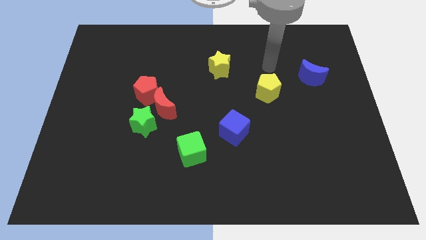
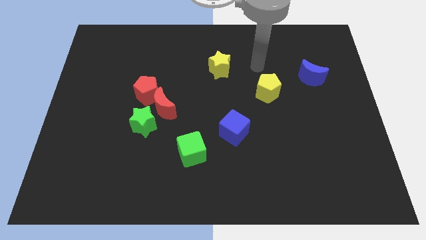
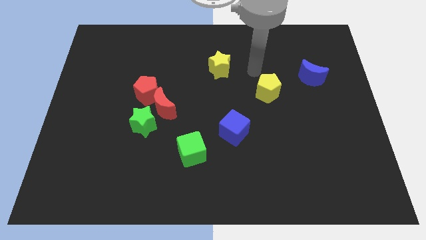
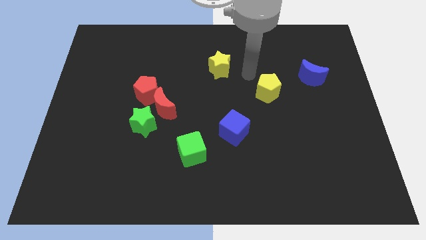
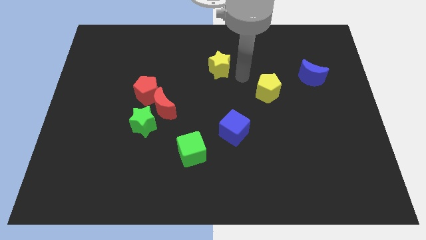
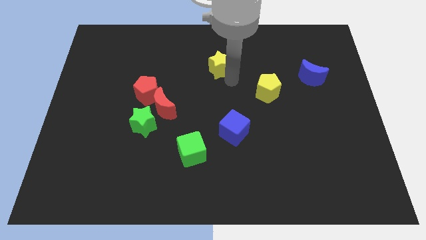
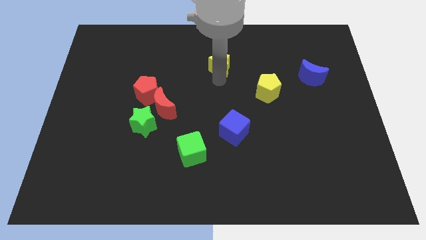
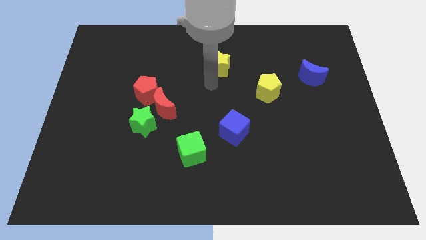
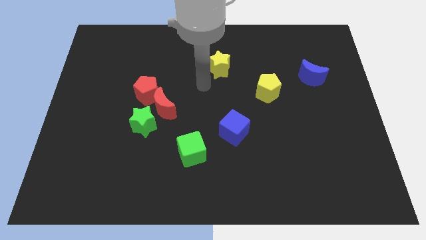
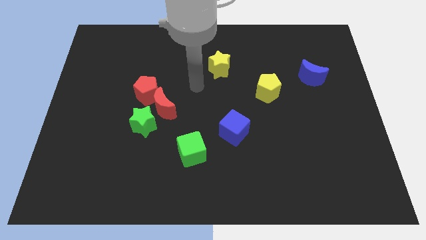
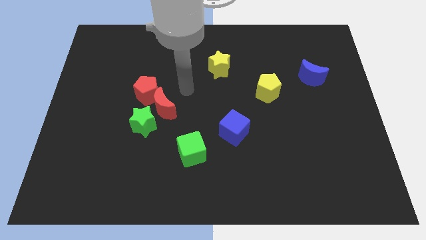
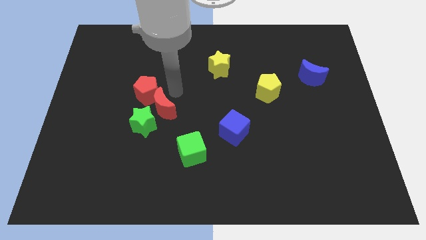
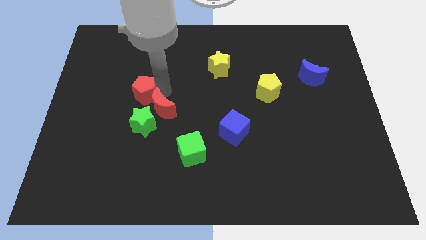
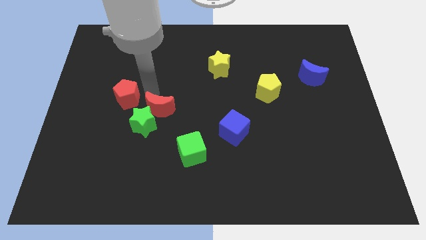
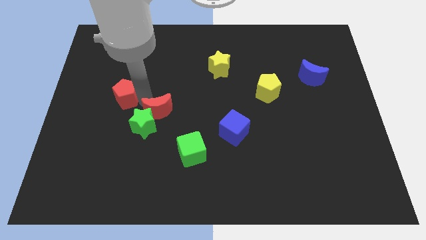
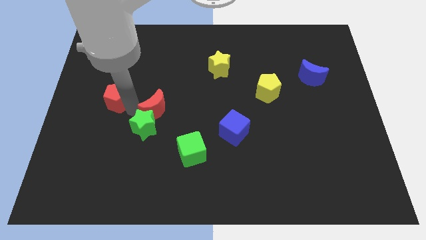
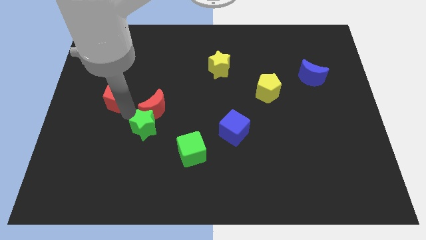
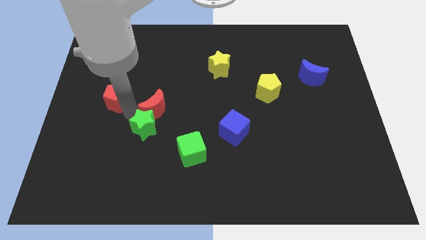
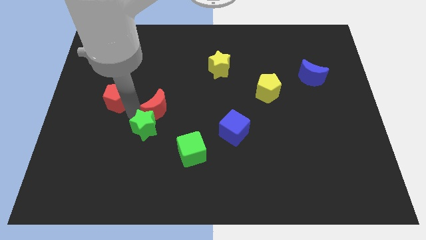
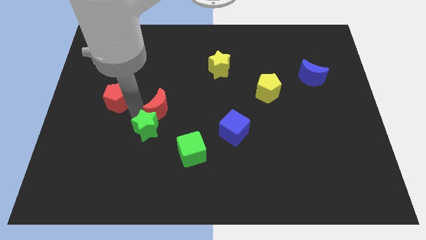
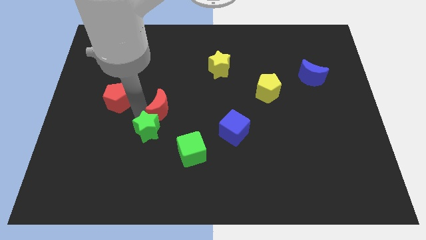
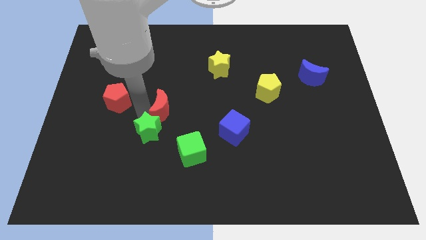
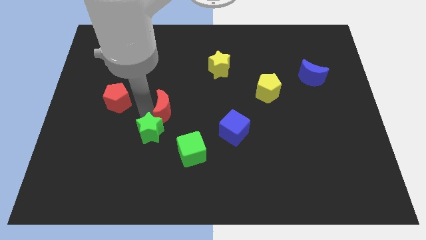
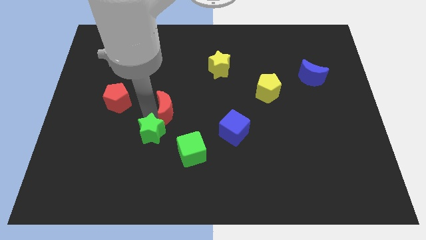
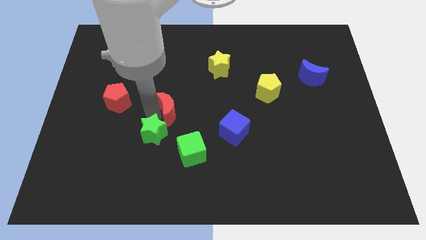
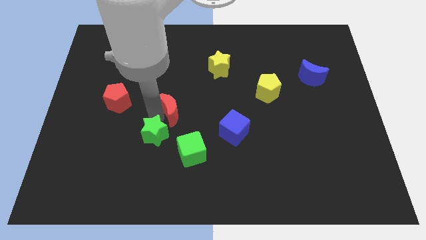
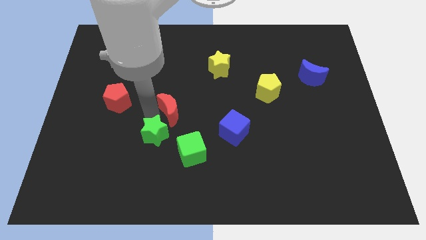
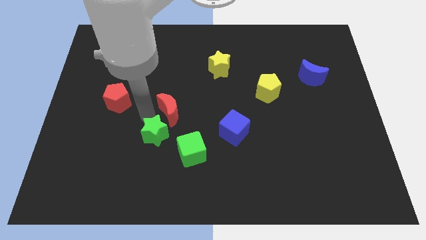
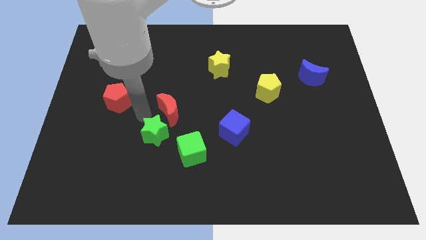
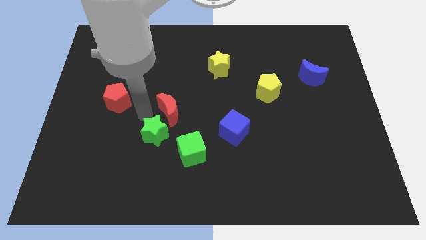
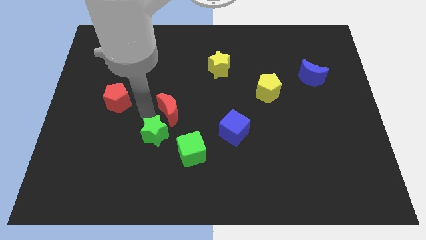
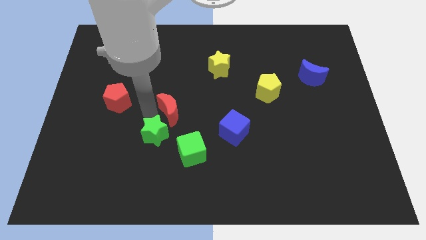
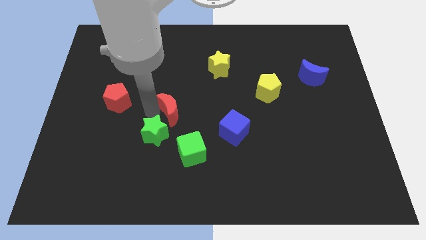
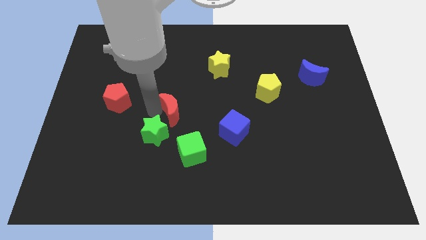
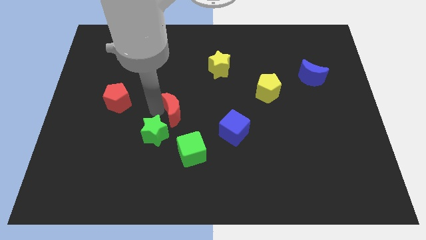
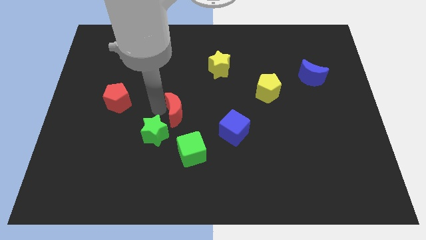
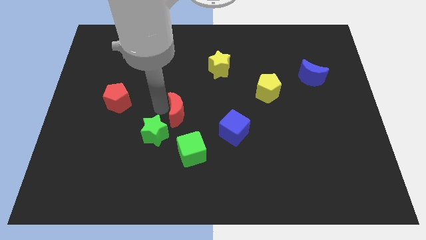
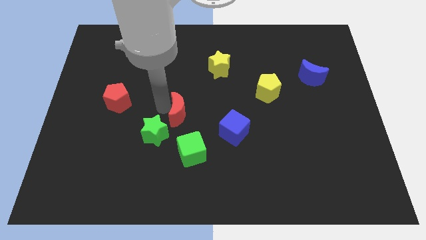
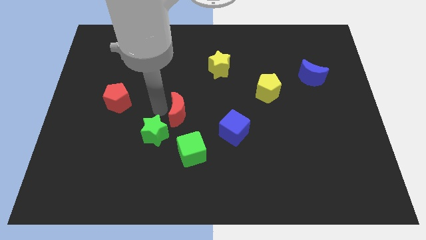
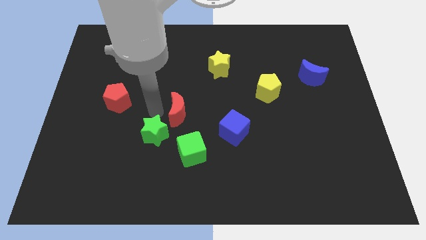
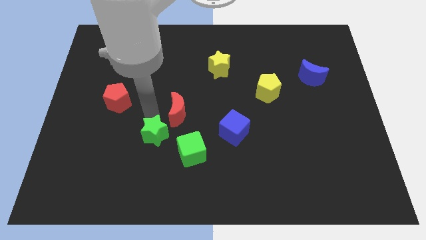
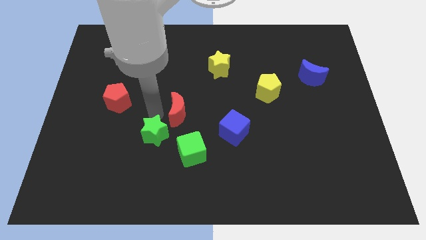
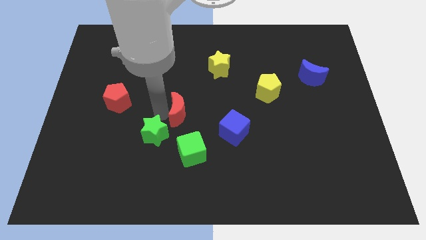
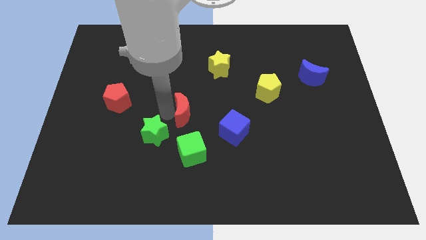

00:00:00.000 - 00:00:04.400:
pull the red moon apart from the green star and red pentagon

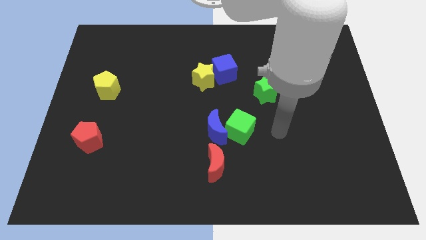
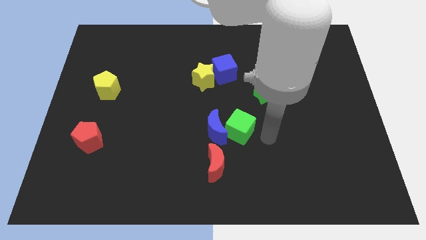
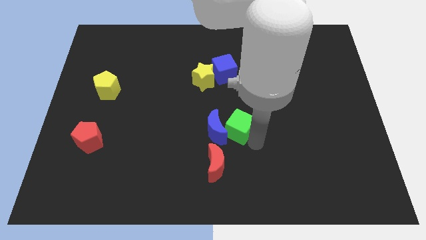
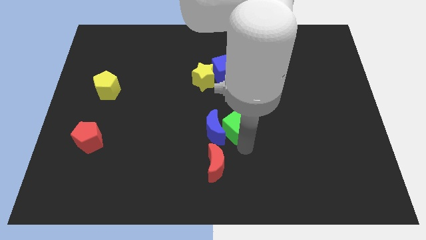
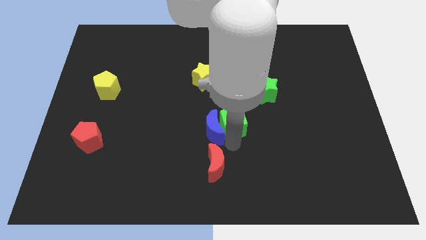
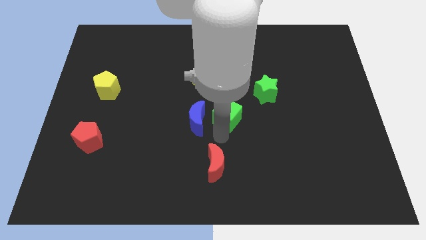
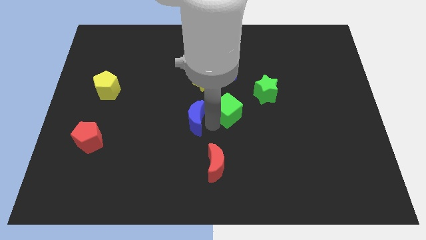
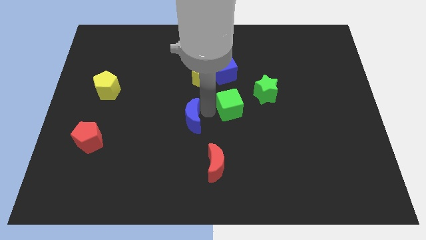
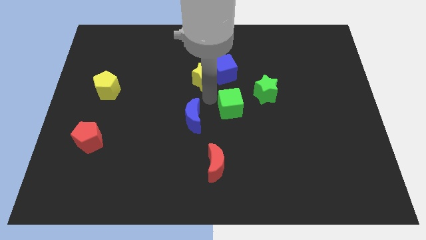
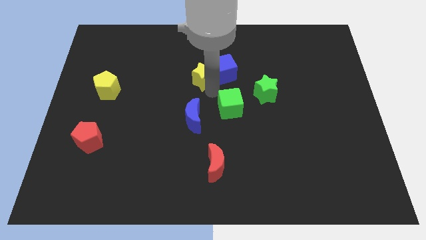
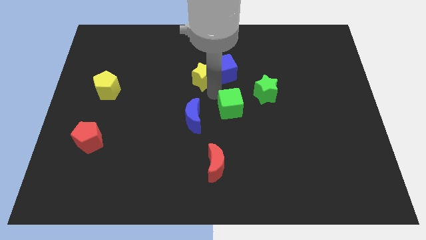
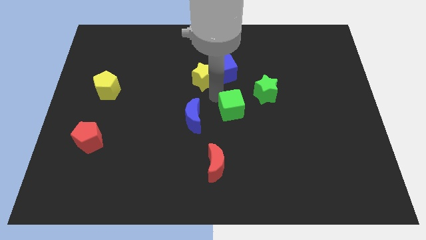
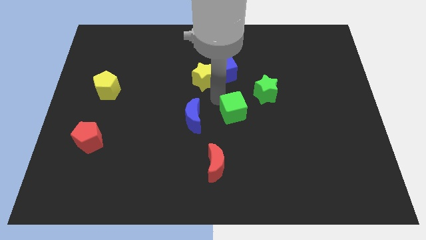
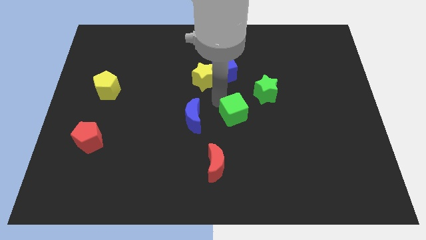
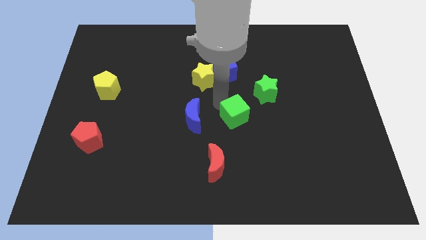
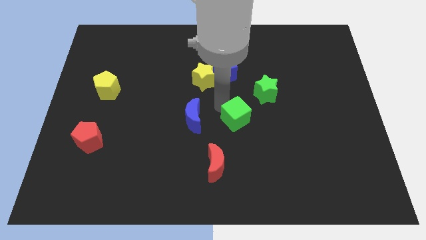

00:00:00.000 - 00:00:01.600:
pull the green cube apart from the blue moon

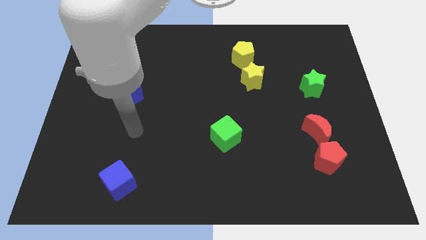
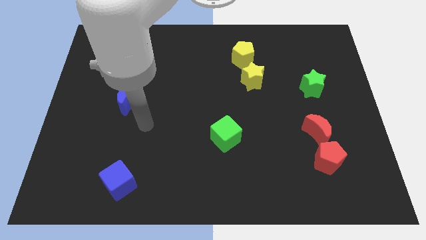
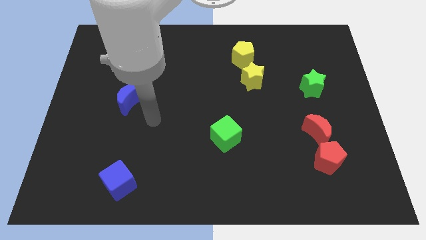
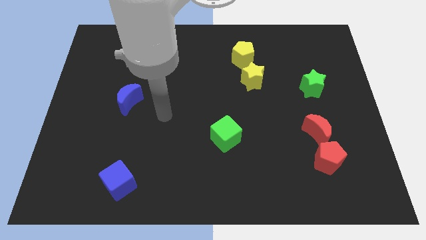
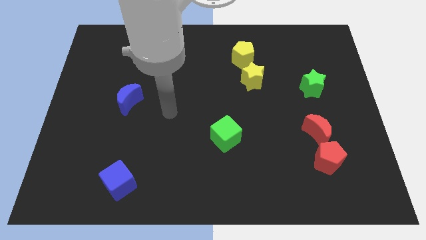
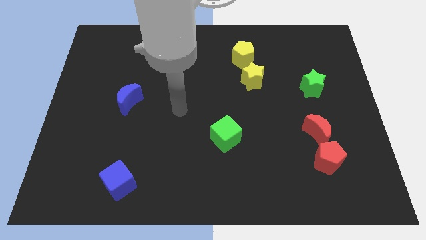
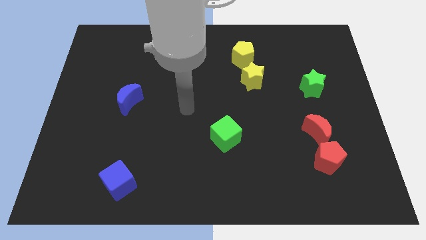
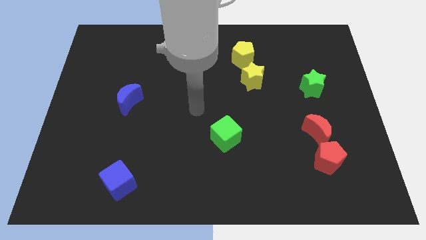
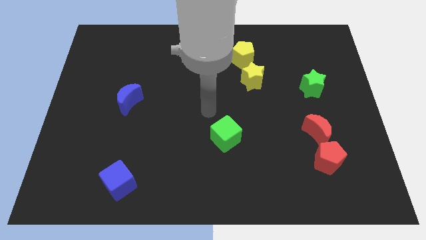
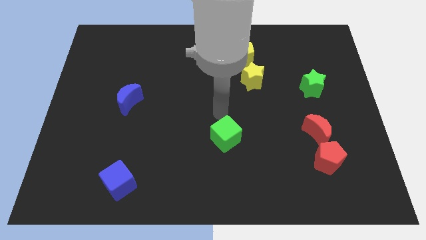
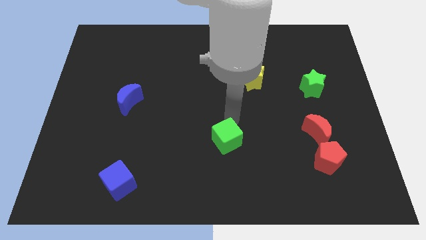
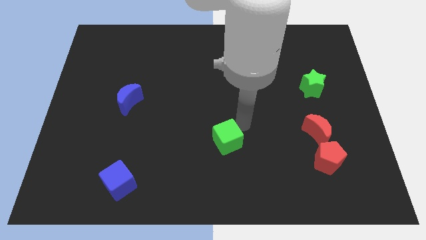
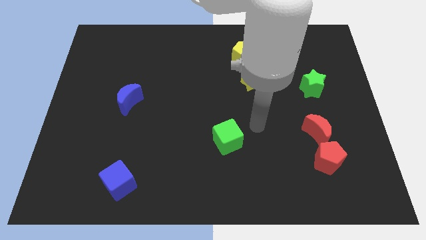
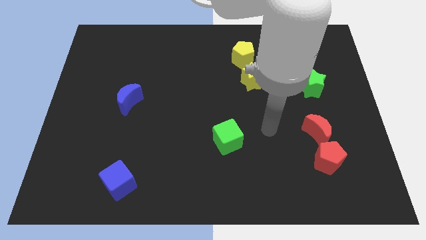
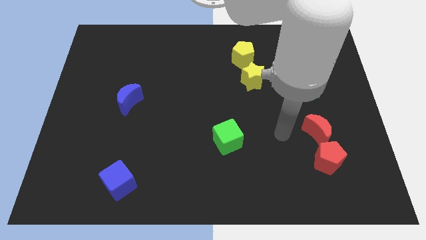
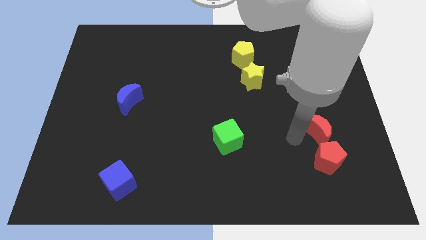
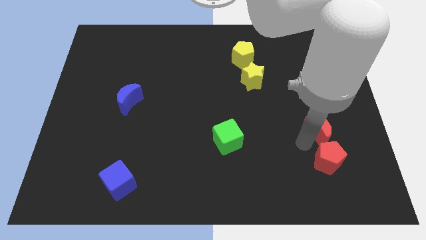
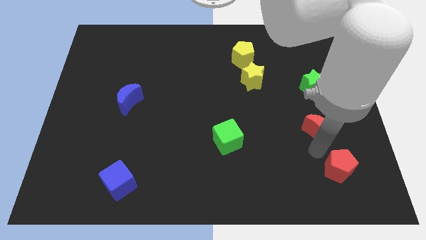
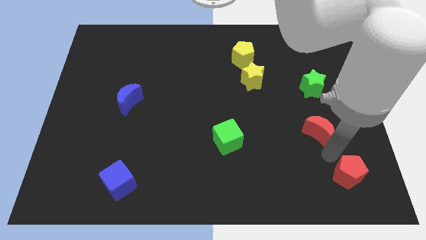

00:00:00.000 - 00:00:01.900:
move the red moon away from the red pentagon

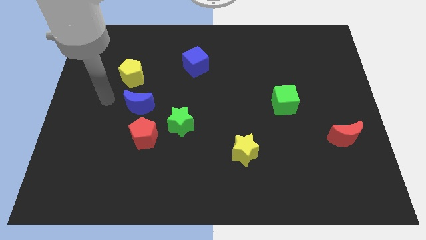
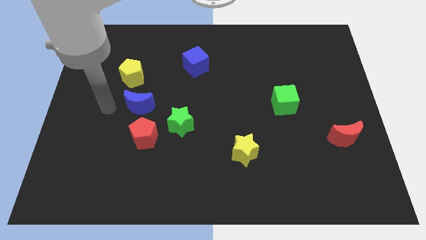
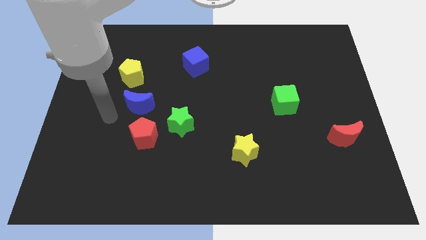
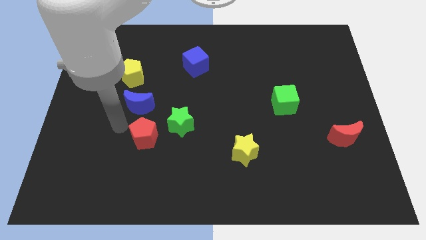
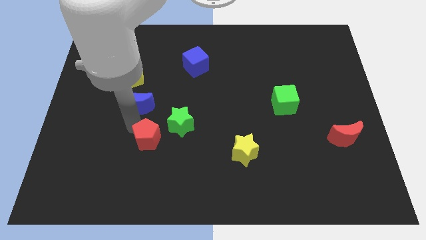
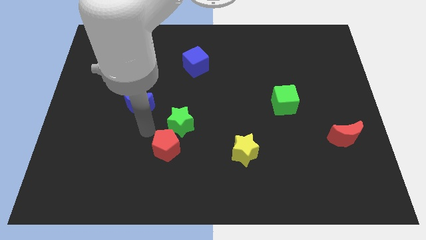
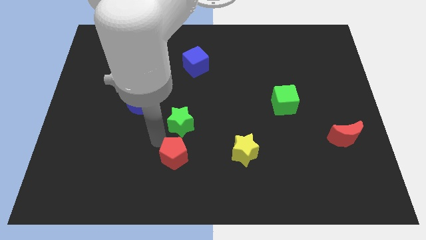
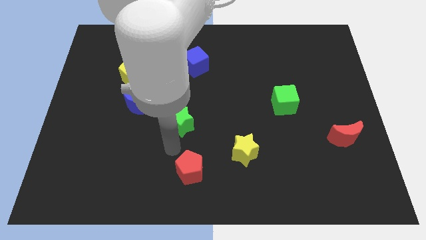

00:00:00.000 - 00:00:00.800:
pull the green star apart from the red pentagon

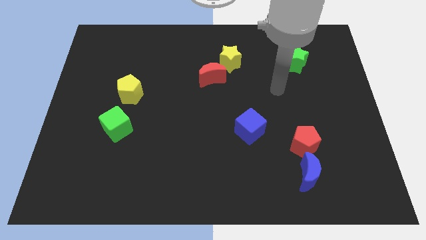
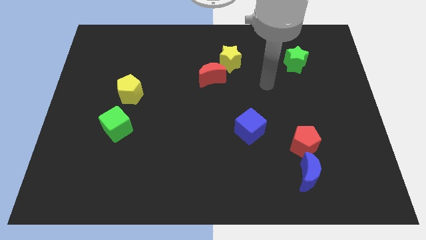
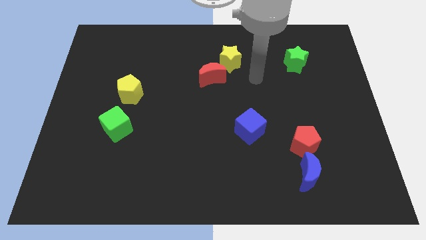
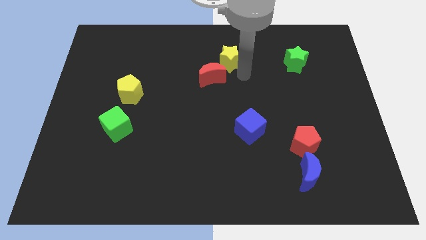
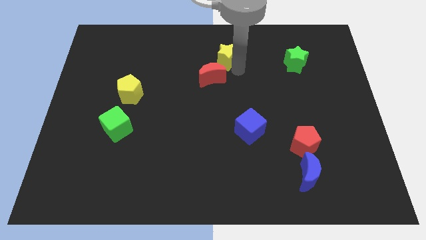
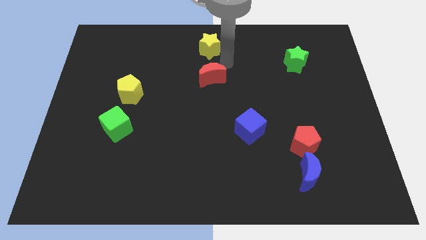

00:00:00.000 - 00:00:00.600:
pull the red moon apart from the yellow star
